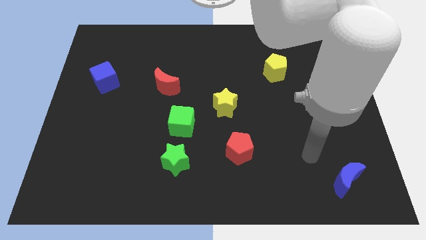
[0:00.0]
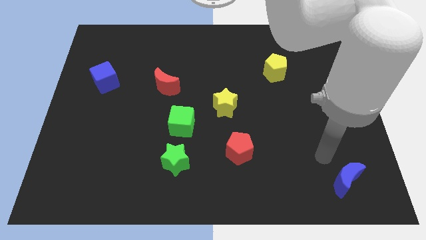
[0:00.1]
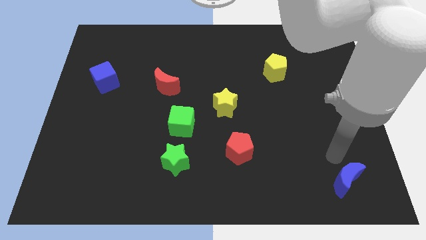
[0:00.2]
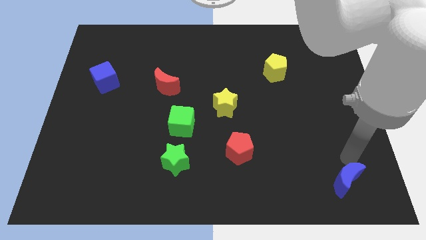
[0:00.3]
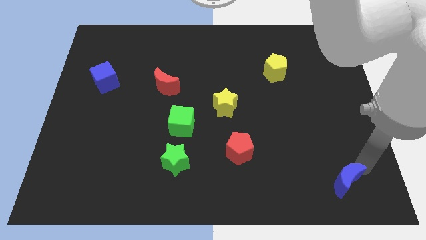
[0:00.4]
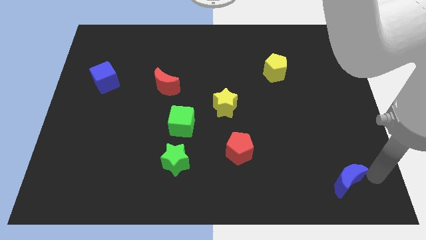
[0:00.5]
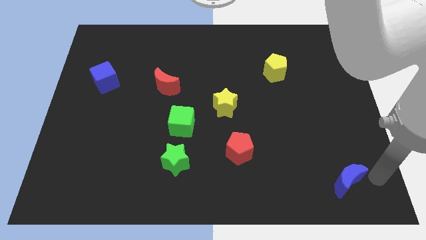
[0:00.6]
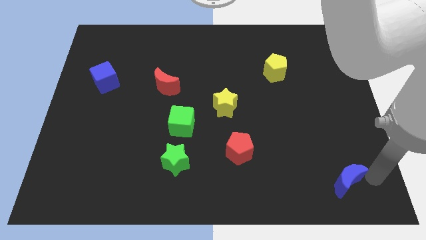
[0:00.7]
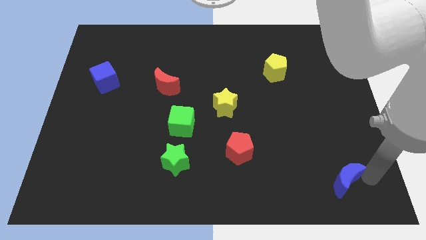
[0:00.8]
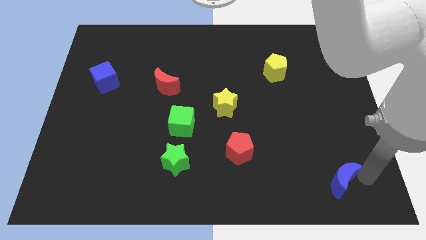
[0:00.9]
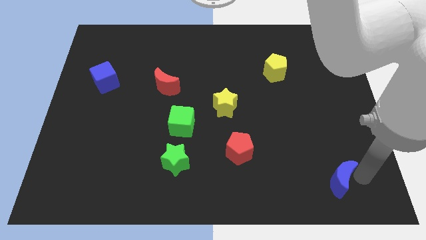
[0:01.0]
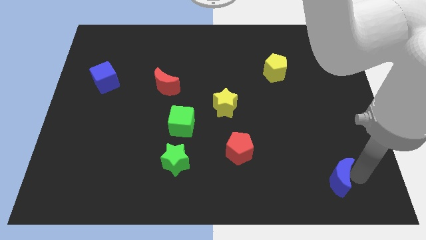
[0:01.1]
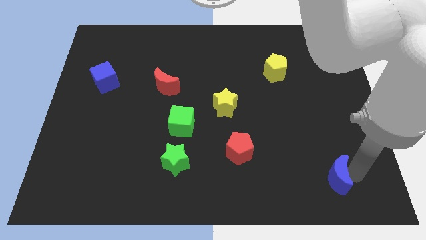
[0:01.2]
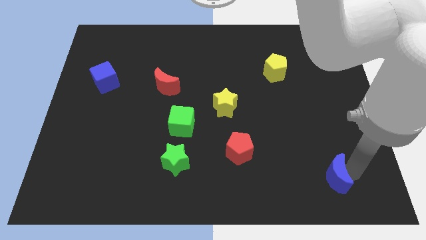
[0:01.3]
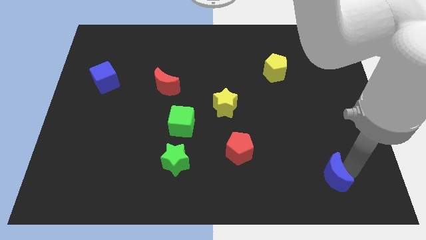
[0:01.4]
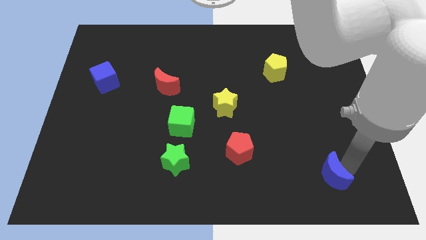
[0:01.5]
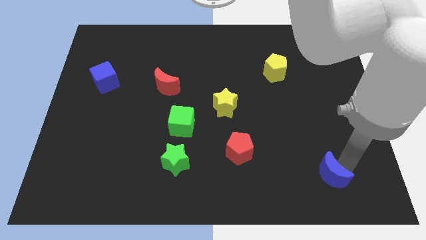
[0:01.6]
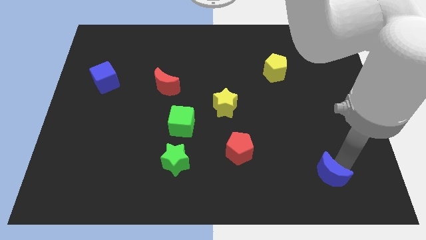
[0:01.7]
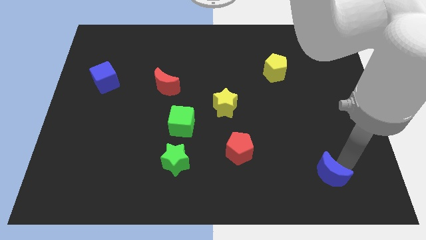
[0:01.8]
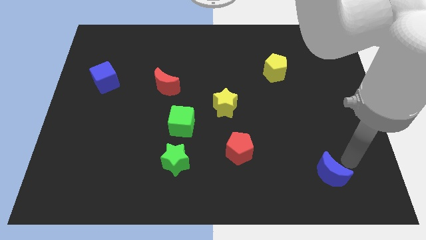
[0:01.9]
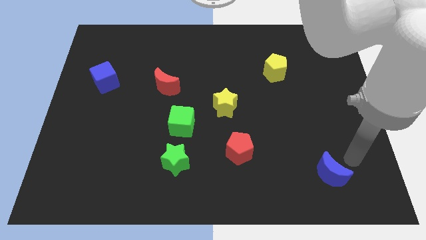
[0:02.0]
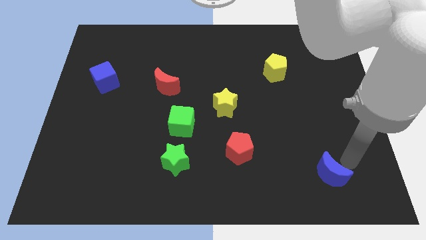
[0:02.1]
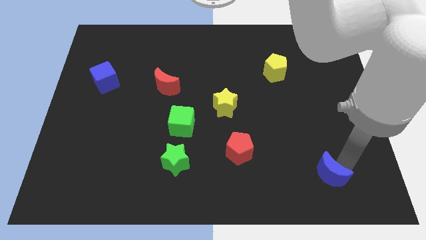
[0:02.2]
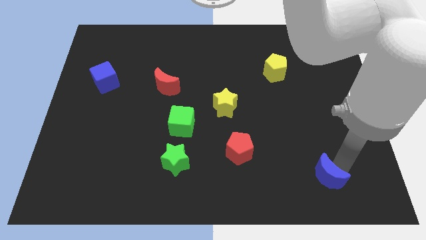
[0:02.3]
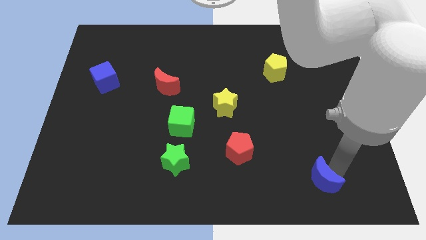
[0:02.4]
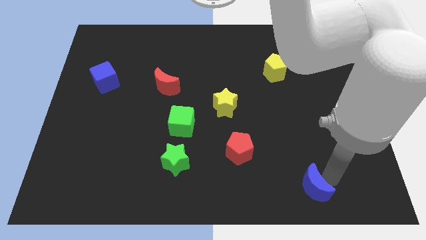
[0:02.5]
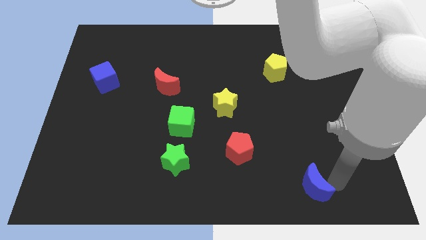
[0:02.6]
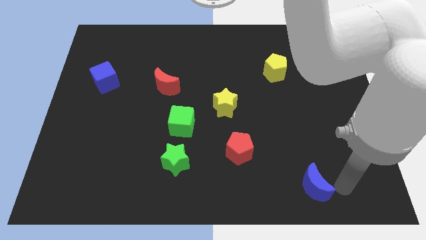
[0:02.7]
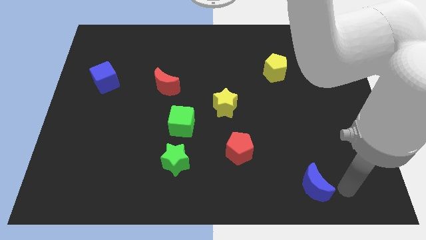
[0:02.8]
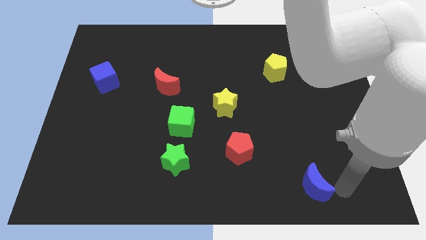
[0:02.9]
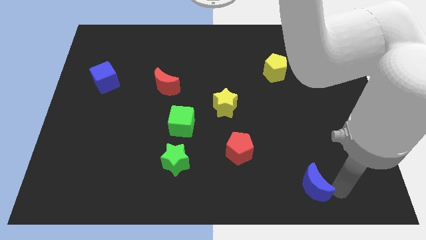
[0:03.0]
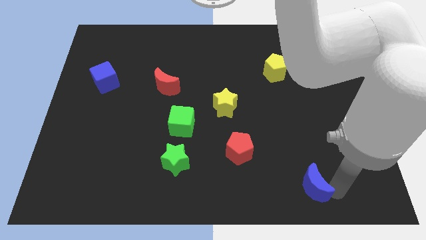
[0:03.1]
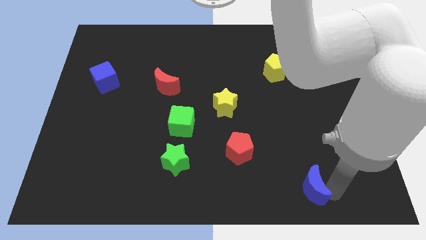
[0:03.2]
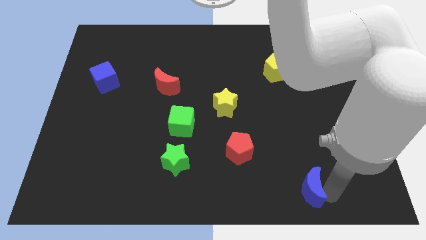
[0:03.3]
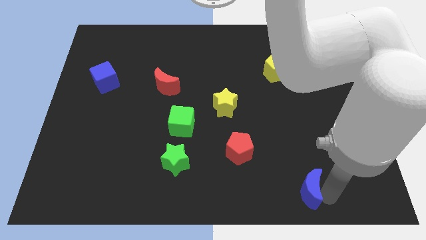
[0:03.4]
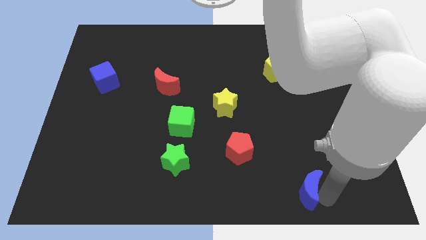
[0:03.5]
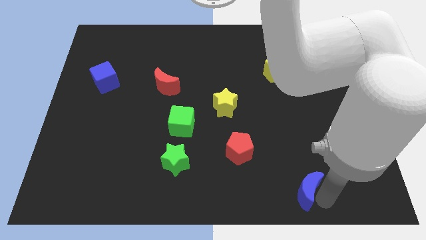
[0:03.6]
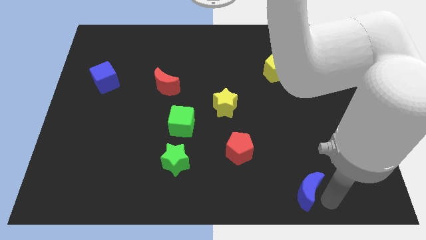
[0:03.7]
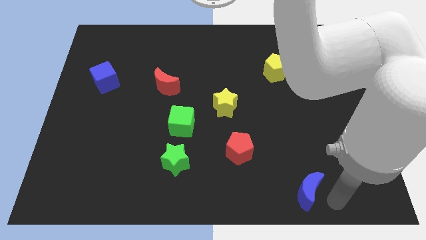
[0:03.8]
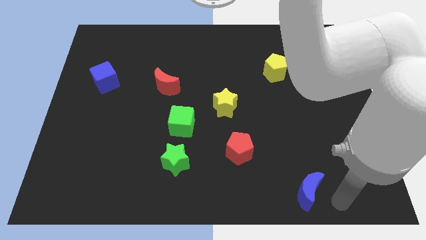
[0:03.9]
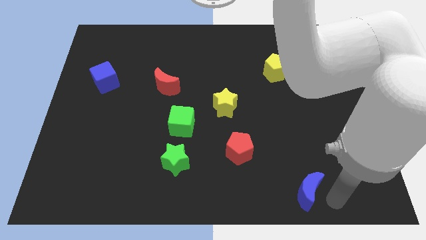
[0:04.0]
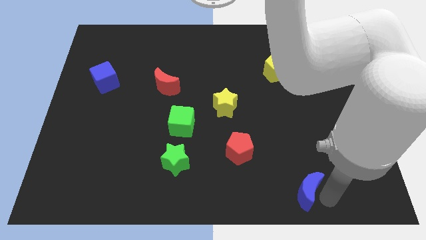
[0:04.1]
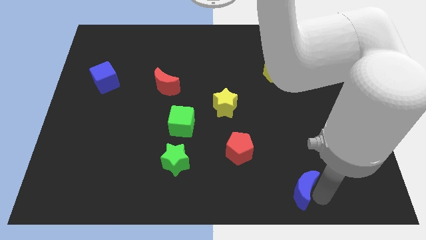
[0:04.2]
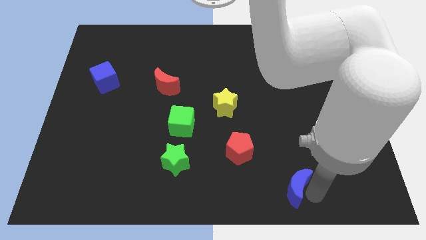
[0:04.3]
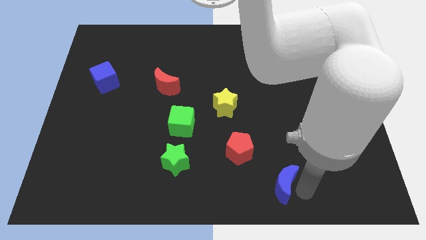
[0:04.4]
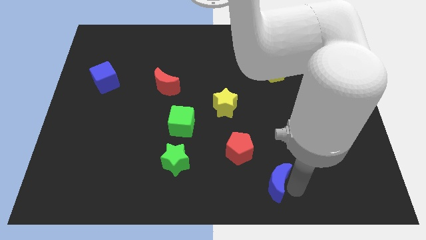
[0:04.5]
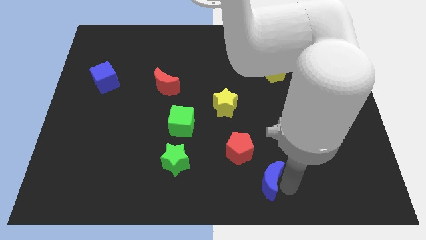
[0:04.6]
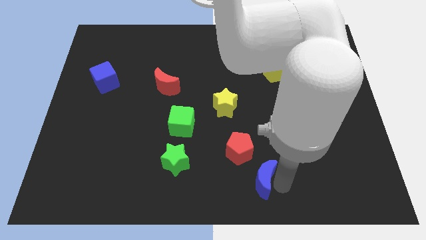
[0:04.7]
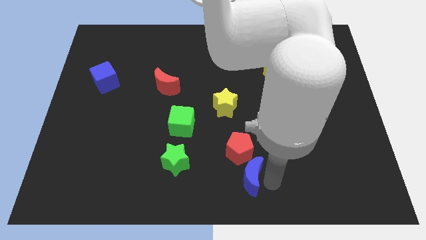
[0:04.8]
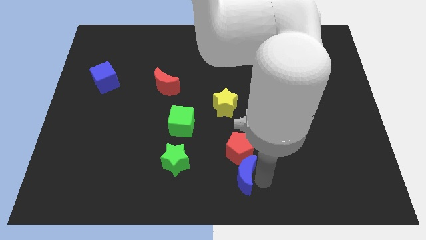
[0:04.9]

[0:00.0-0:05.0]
slide the blue moon to the left

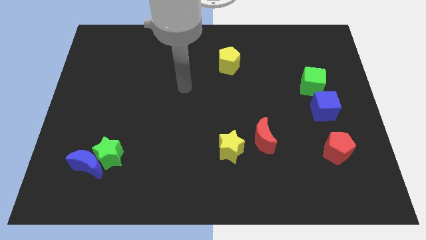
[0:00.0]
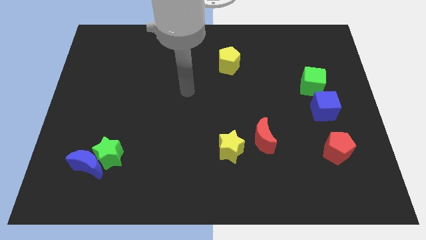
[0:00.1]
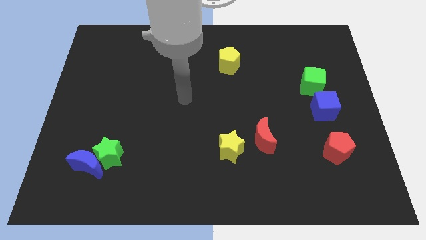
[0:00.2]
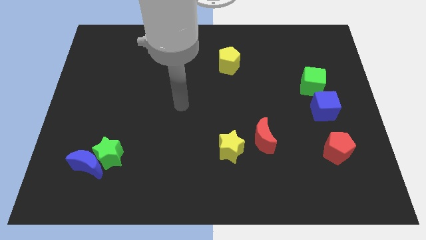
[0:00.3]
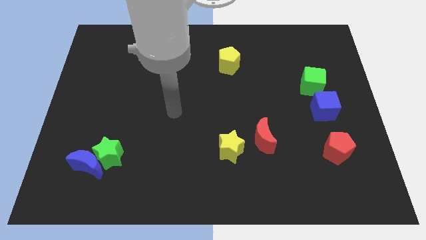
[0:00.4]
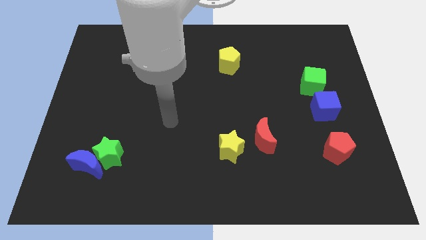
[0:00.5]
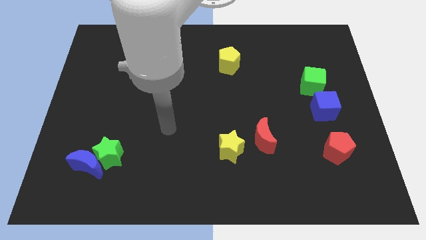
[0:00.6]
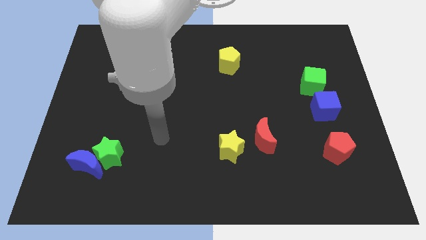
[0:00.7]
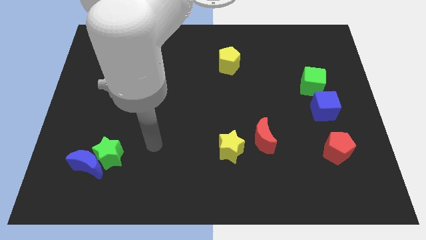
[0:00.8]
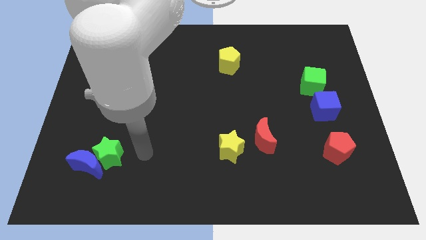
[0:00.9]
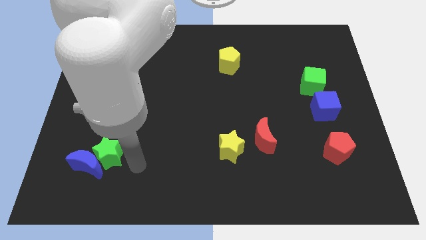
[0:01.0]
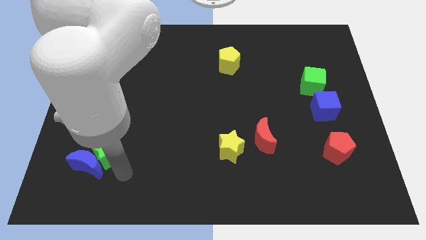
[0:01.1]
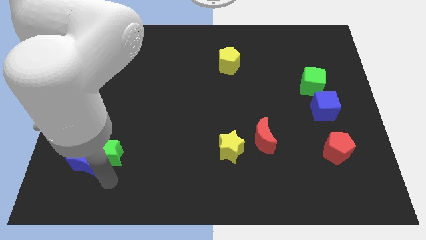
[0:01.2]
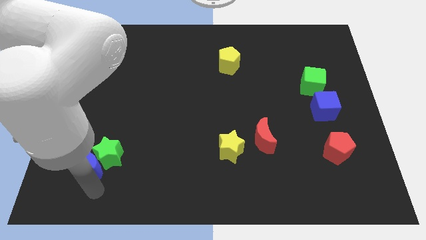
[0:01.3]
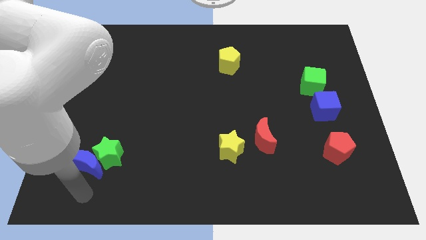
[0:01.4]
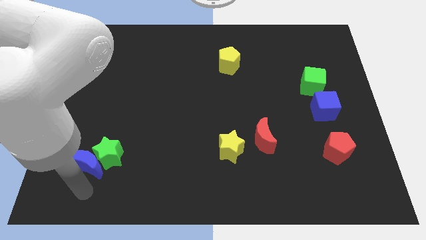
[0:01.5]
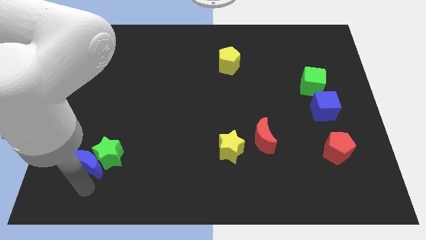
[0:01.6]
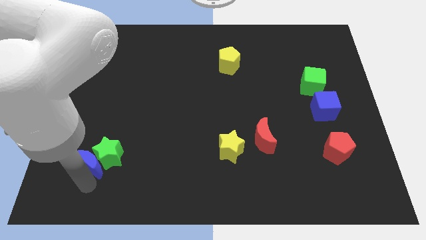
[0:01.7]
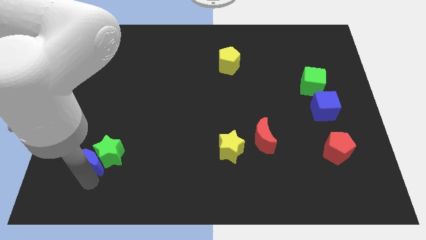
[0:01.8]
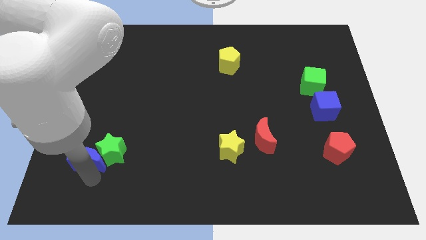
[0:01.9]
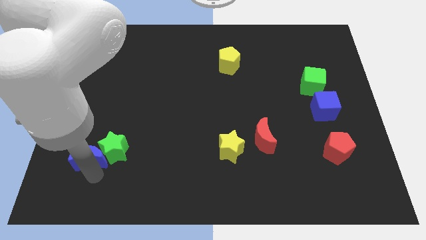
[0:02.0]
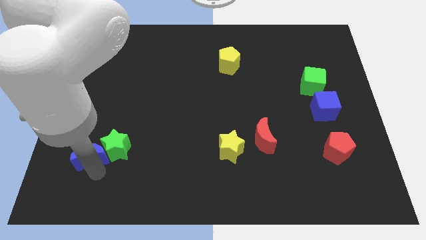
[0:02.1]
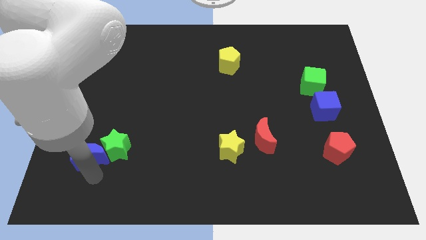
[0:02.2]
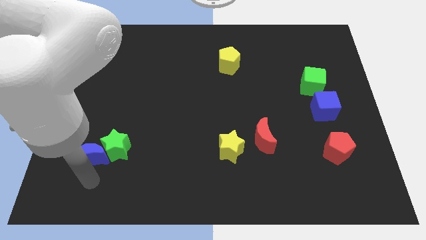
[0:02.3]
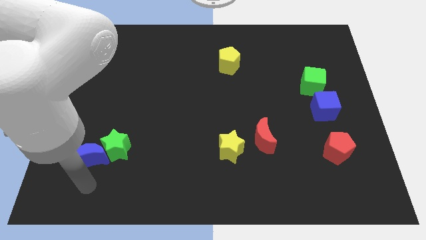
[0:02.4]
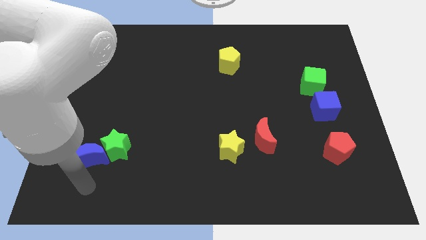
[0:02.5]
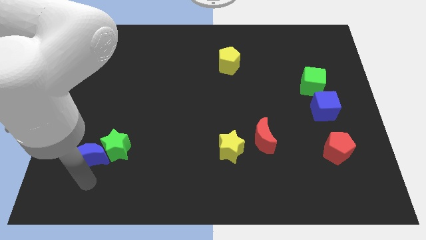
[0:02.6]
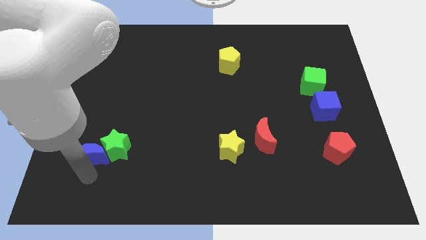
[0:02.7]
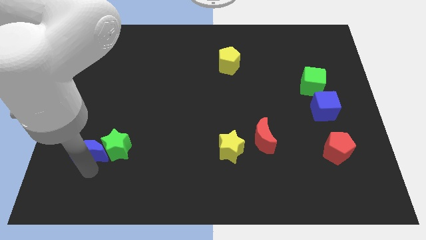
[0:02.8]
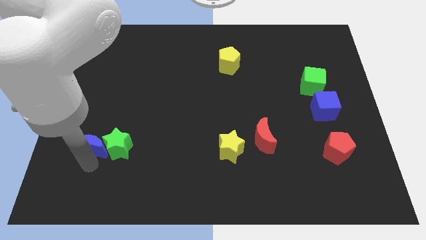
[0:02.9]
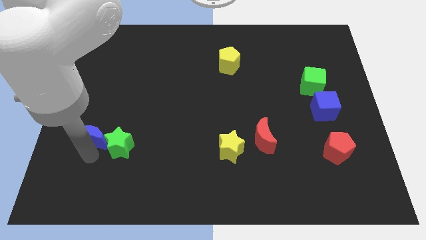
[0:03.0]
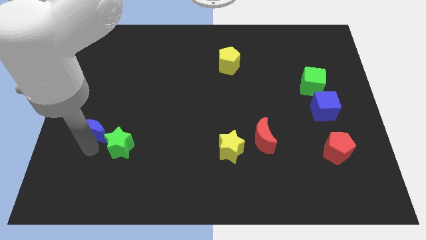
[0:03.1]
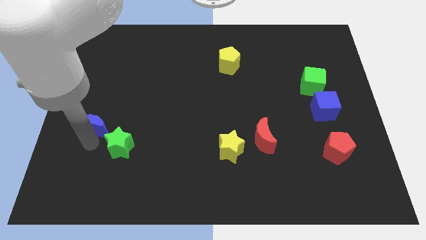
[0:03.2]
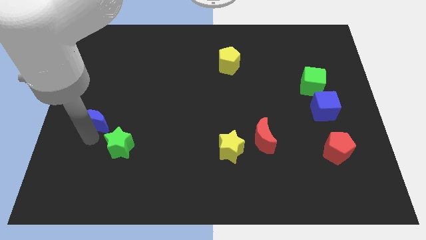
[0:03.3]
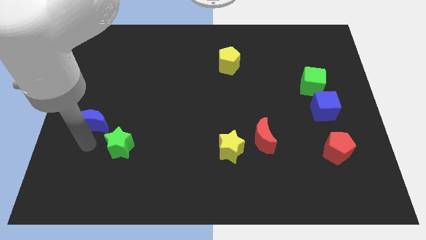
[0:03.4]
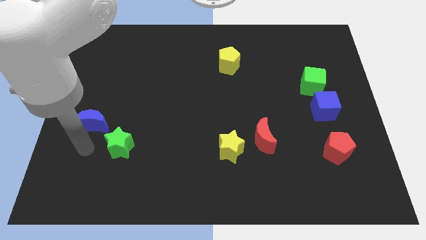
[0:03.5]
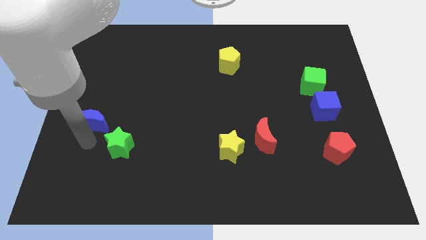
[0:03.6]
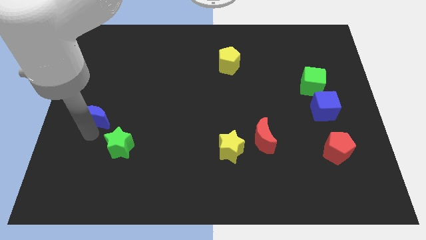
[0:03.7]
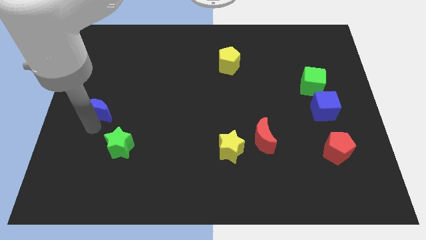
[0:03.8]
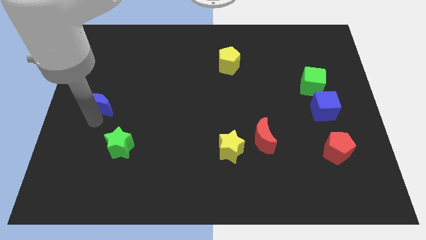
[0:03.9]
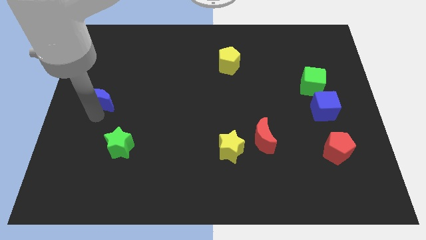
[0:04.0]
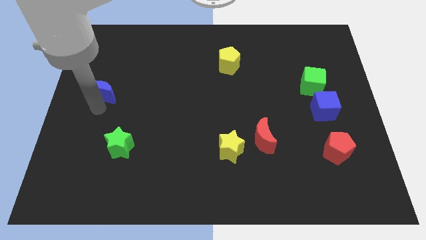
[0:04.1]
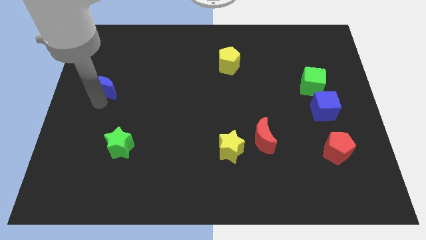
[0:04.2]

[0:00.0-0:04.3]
slide the blue moon upwards
